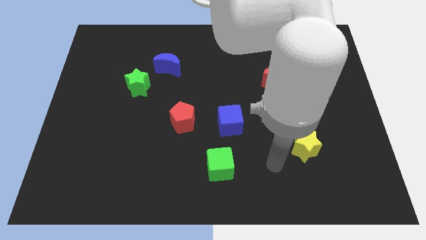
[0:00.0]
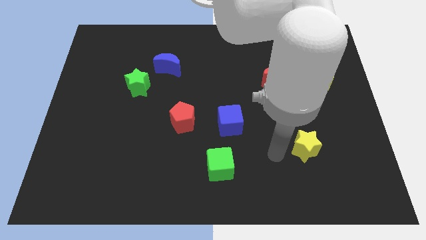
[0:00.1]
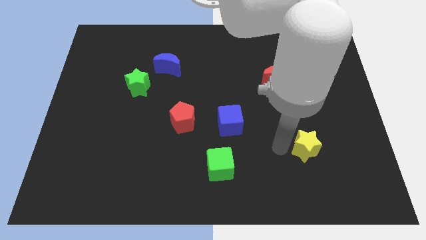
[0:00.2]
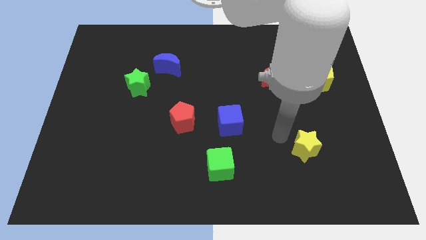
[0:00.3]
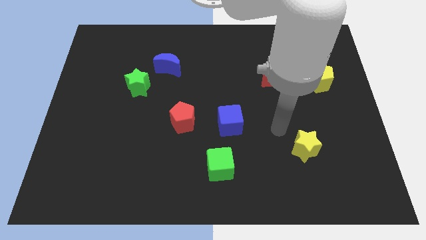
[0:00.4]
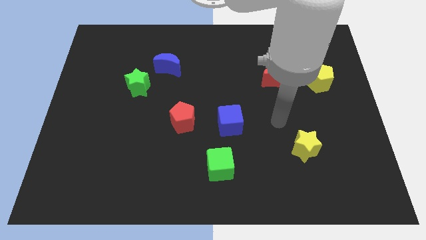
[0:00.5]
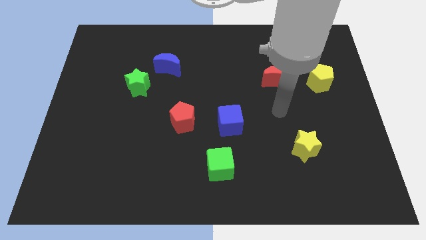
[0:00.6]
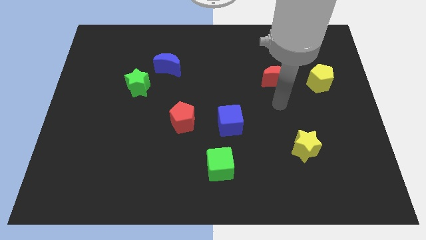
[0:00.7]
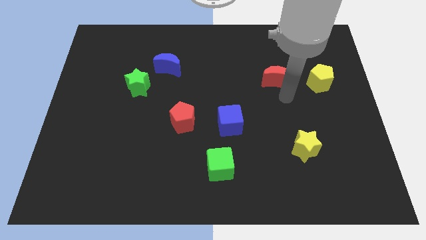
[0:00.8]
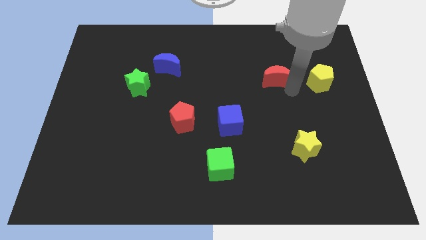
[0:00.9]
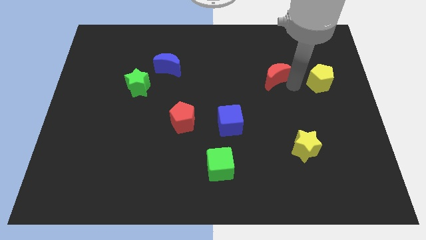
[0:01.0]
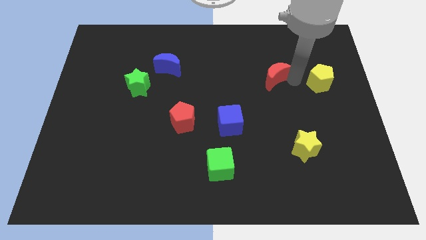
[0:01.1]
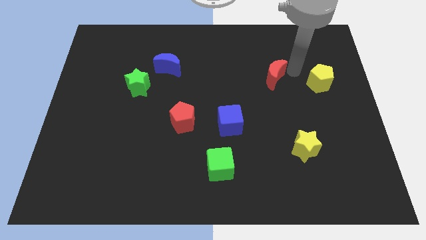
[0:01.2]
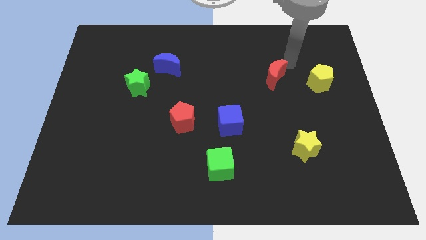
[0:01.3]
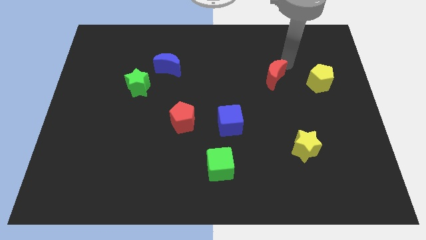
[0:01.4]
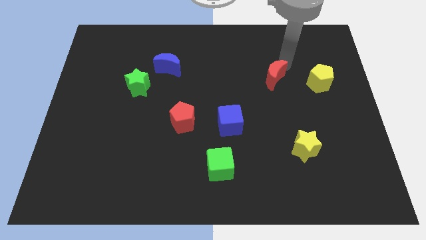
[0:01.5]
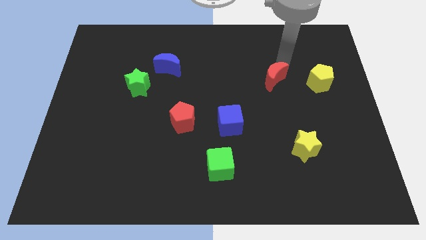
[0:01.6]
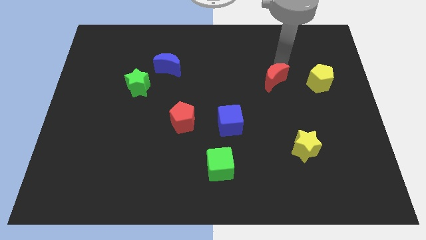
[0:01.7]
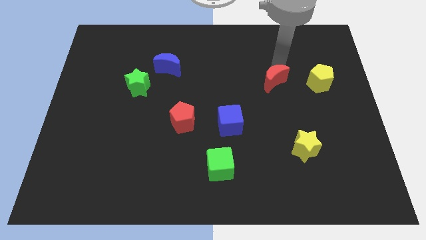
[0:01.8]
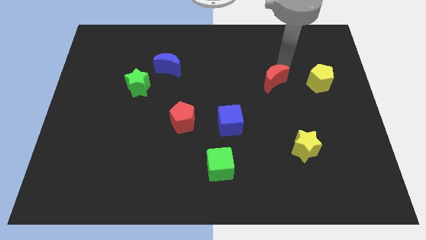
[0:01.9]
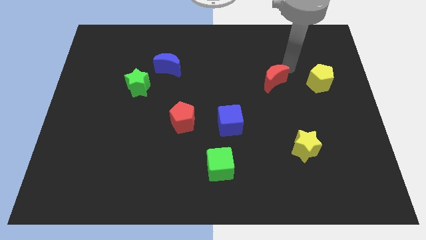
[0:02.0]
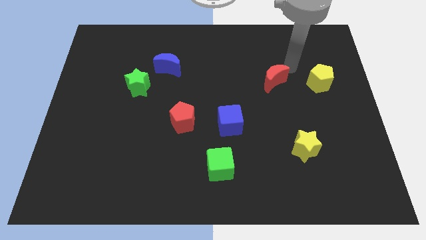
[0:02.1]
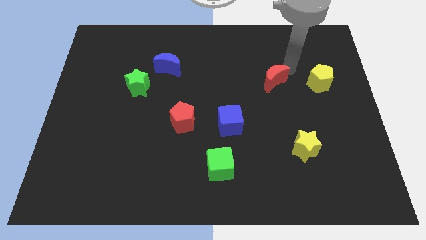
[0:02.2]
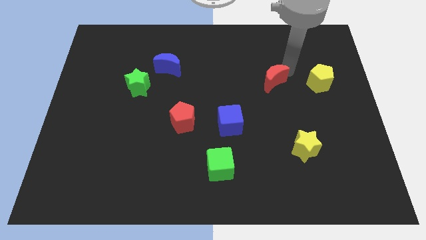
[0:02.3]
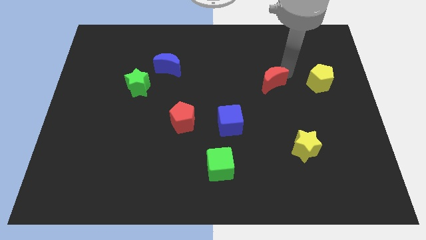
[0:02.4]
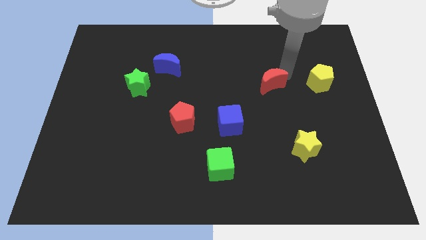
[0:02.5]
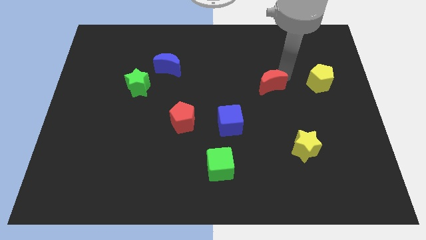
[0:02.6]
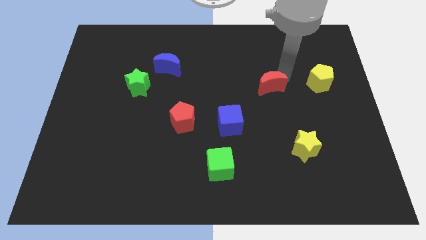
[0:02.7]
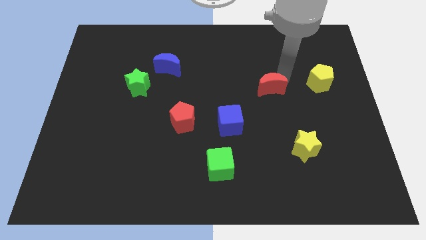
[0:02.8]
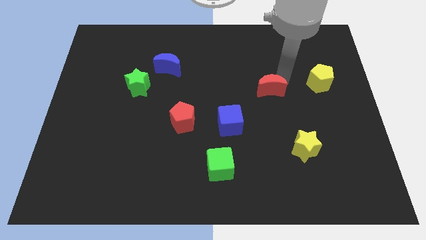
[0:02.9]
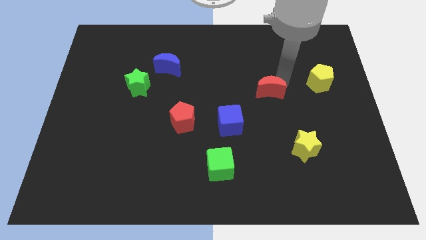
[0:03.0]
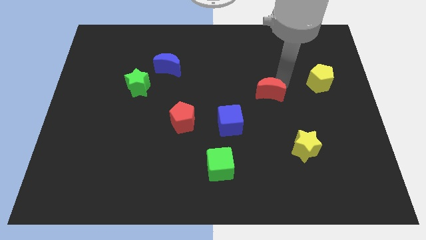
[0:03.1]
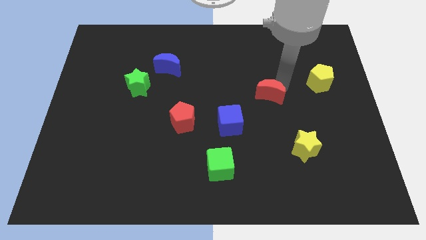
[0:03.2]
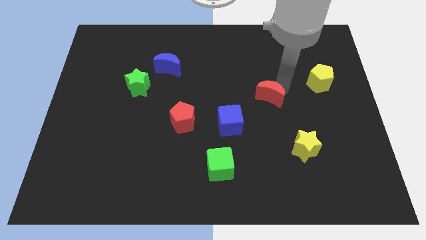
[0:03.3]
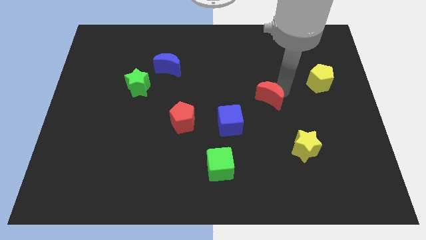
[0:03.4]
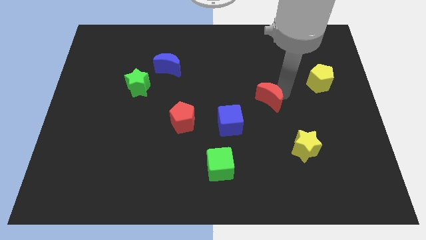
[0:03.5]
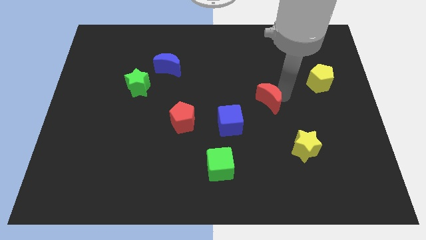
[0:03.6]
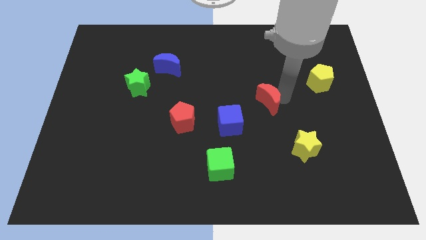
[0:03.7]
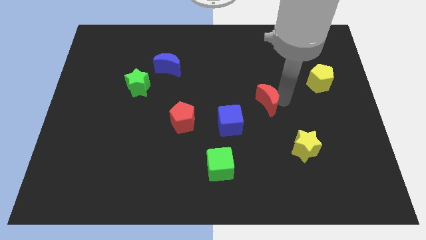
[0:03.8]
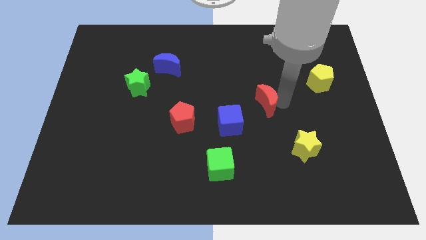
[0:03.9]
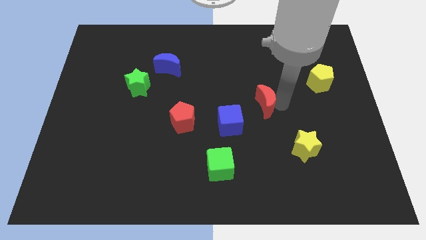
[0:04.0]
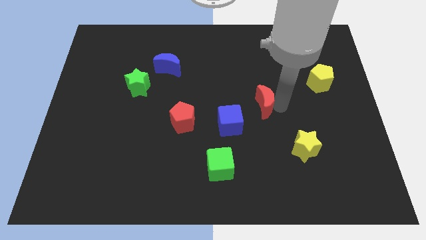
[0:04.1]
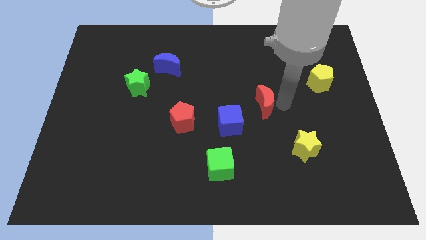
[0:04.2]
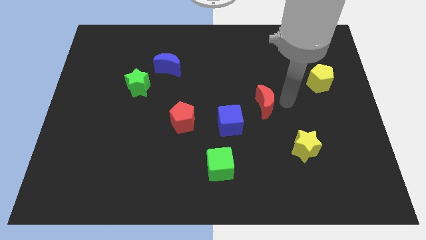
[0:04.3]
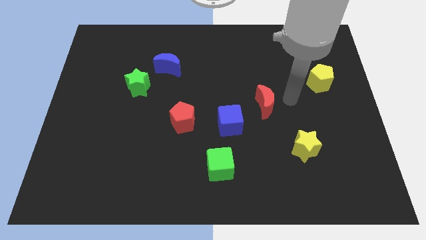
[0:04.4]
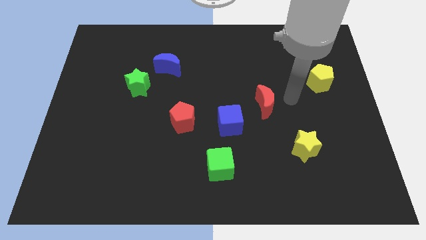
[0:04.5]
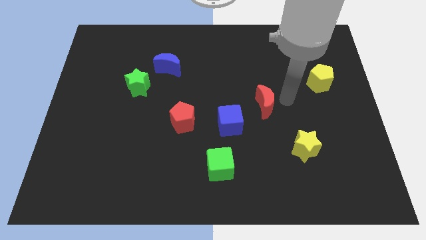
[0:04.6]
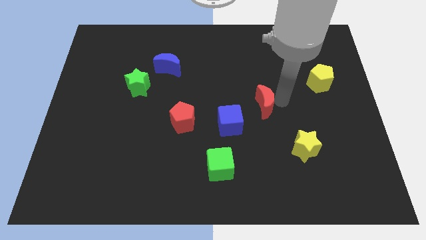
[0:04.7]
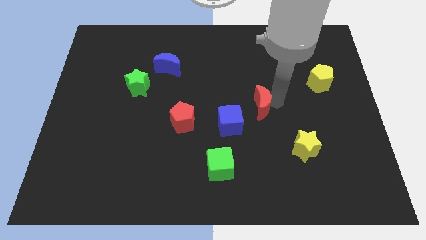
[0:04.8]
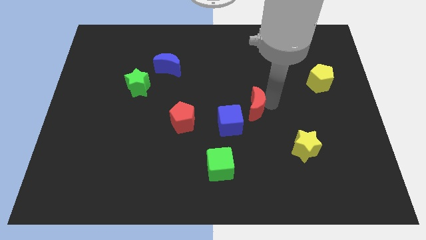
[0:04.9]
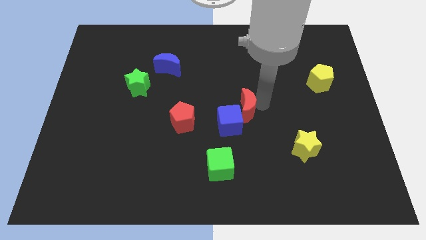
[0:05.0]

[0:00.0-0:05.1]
move the red moon next to the blue cube

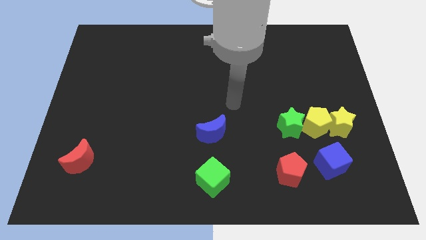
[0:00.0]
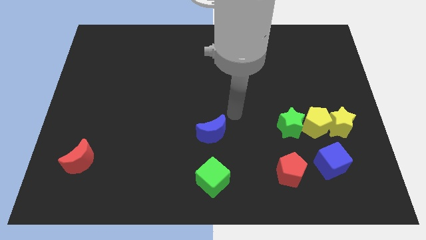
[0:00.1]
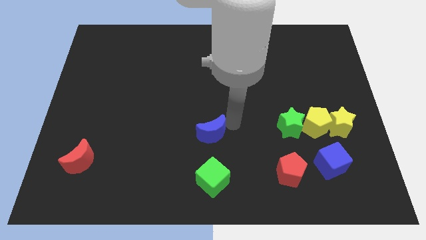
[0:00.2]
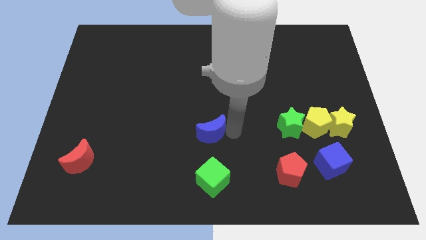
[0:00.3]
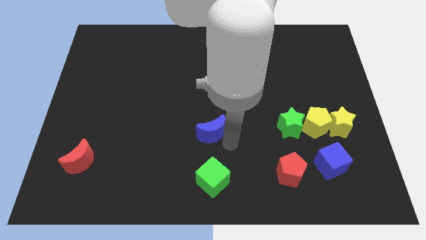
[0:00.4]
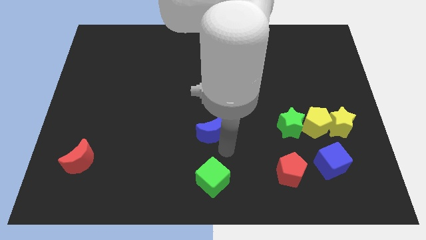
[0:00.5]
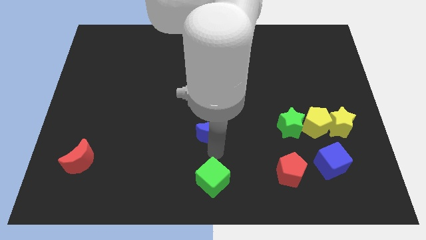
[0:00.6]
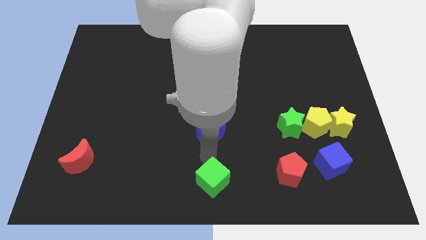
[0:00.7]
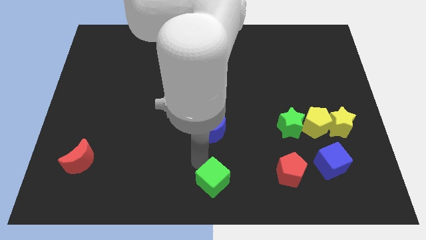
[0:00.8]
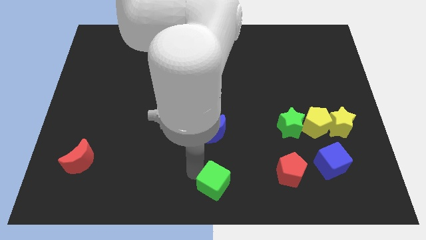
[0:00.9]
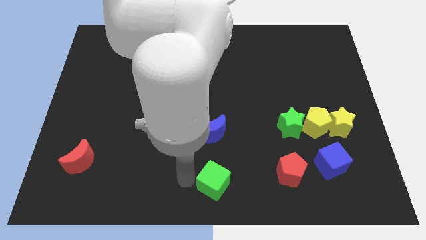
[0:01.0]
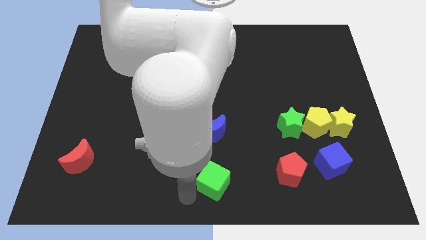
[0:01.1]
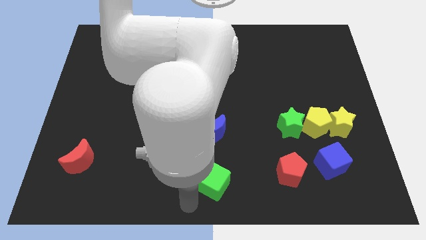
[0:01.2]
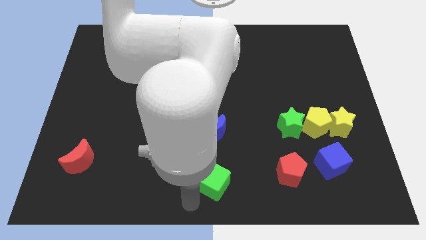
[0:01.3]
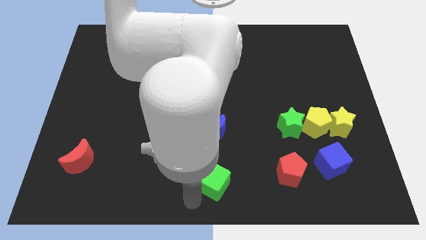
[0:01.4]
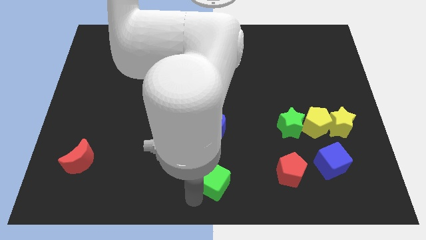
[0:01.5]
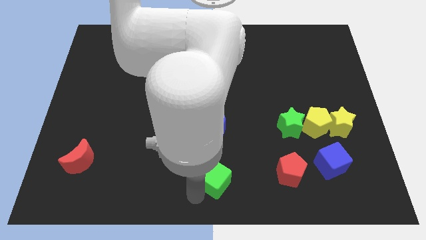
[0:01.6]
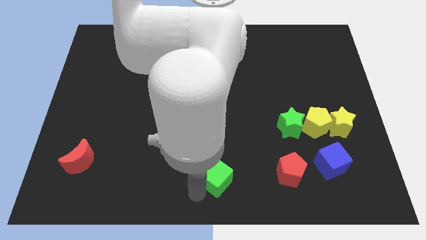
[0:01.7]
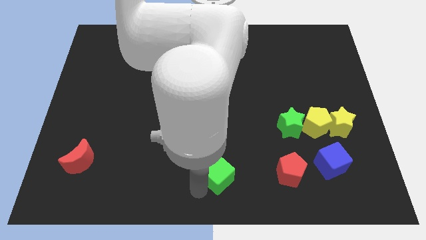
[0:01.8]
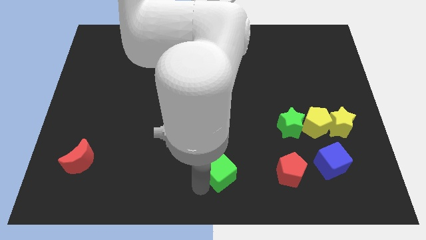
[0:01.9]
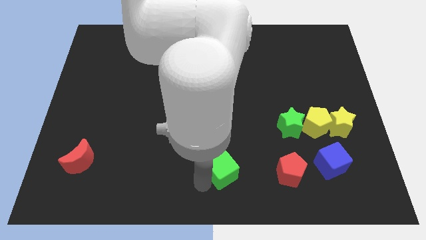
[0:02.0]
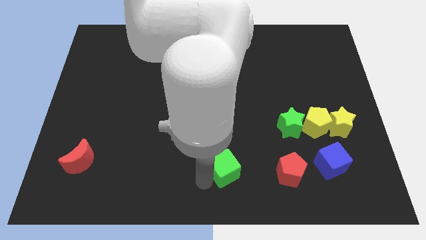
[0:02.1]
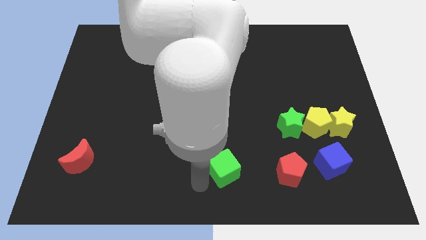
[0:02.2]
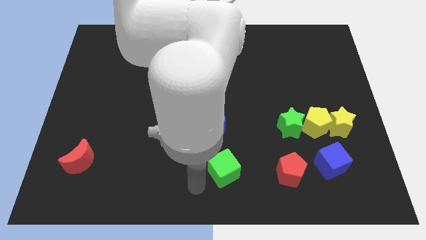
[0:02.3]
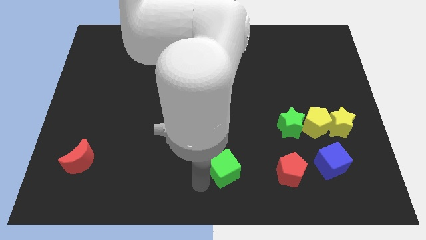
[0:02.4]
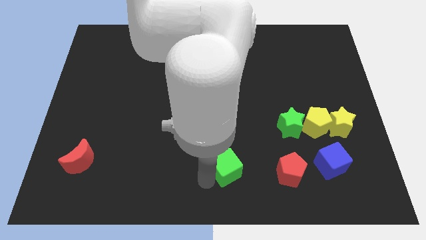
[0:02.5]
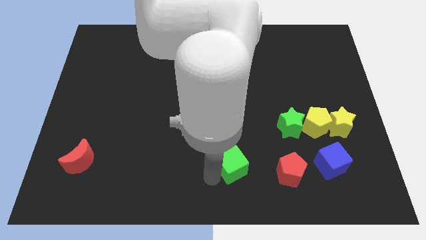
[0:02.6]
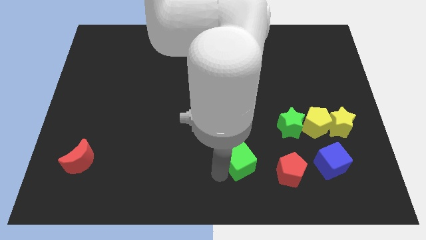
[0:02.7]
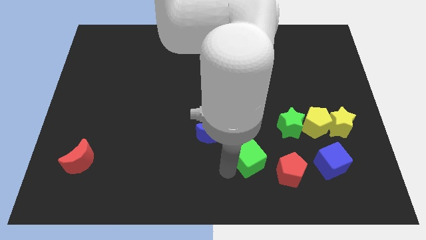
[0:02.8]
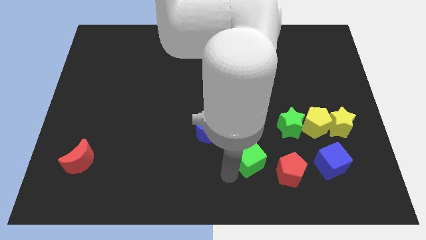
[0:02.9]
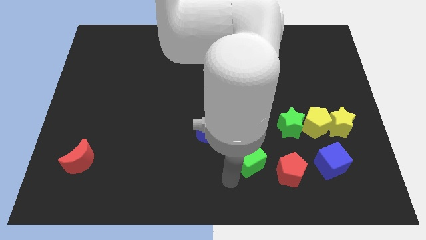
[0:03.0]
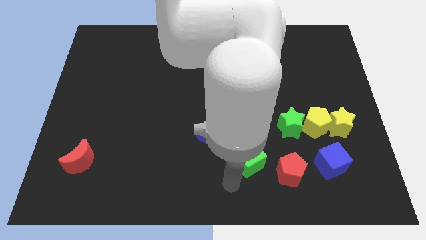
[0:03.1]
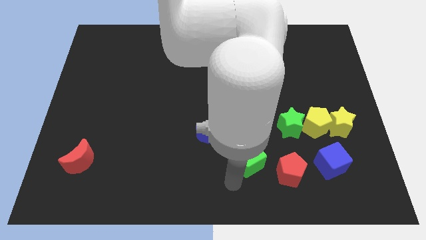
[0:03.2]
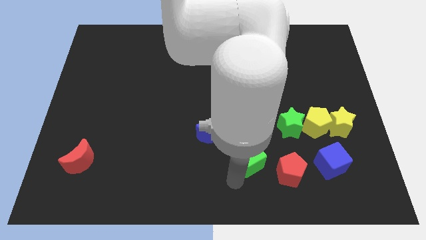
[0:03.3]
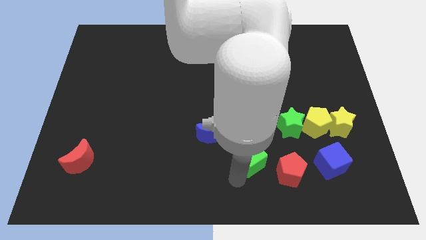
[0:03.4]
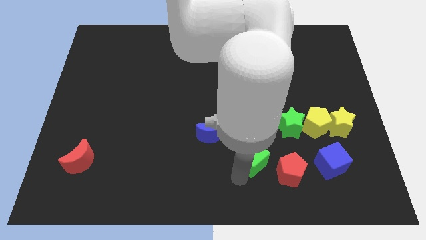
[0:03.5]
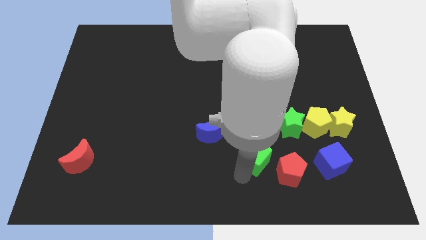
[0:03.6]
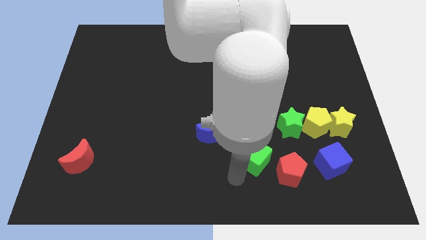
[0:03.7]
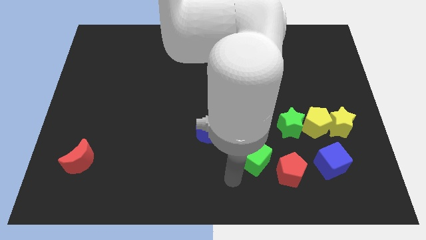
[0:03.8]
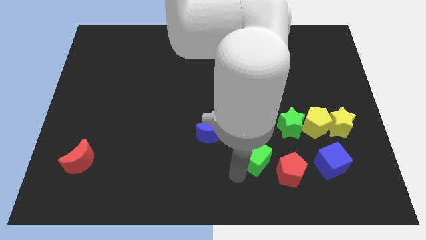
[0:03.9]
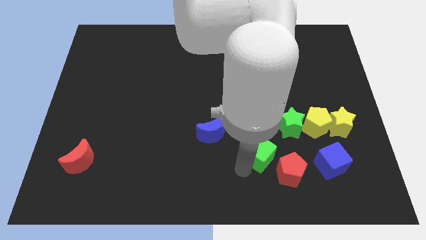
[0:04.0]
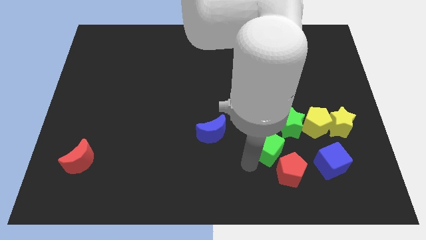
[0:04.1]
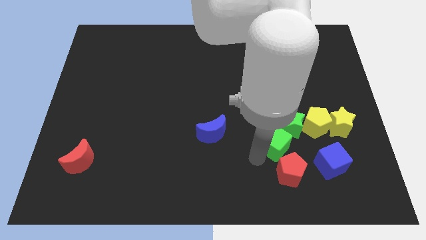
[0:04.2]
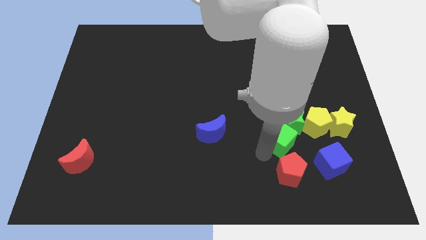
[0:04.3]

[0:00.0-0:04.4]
put the green cube towards the green star
